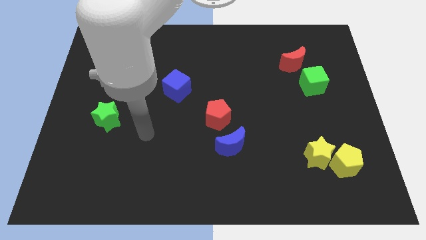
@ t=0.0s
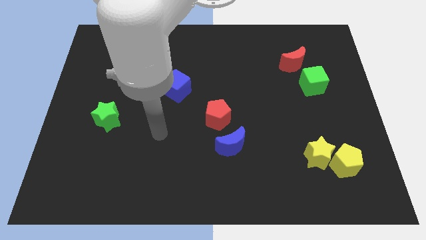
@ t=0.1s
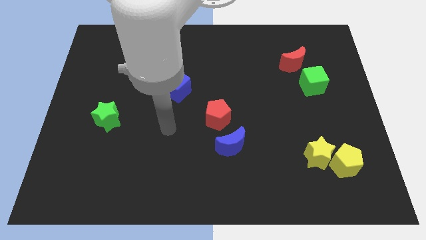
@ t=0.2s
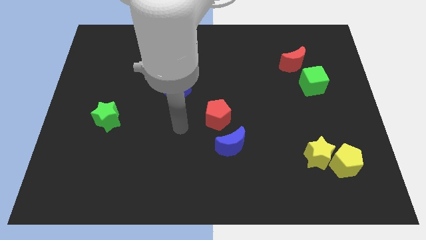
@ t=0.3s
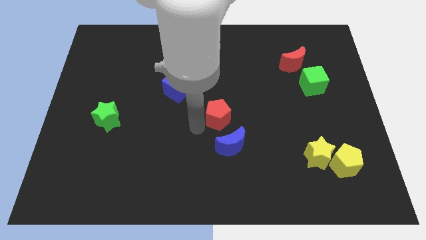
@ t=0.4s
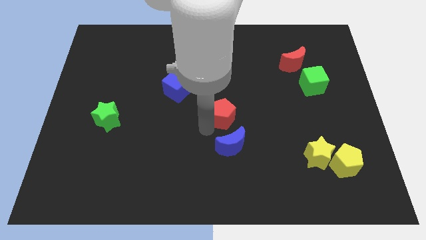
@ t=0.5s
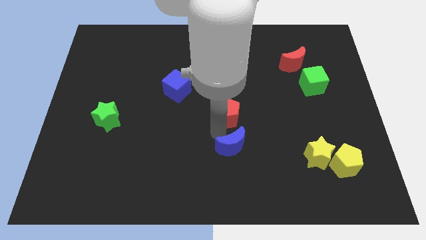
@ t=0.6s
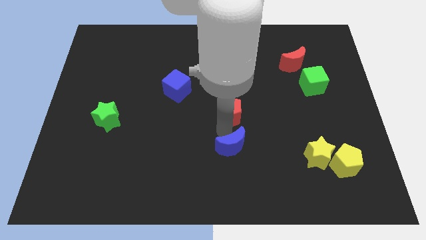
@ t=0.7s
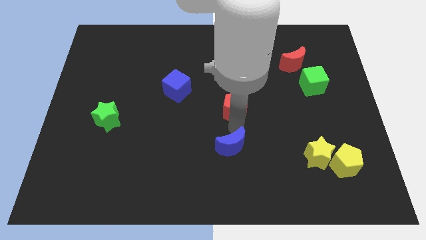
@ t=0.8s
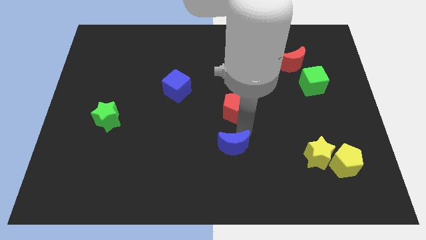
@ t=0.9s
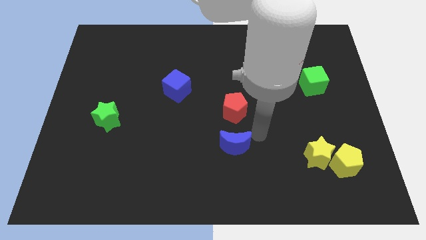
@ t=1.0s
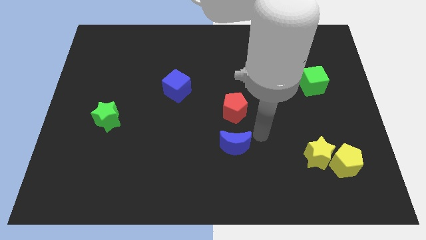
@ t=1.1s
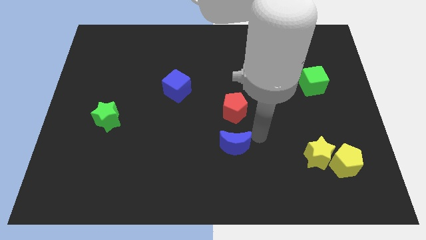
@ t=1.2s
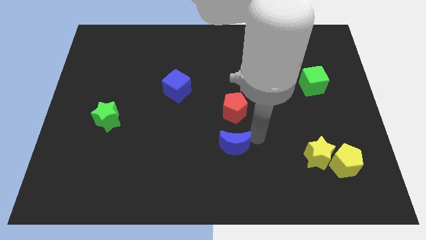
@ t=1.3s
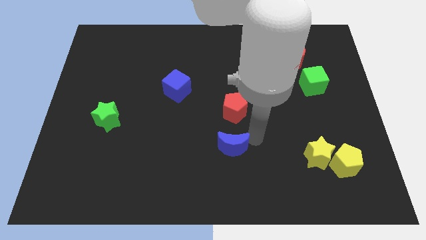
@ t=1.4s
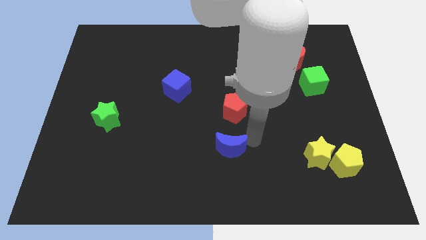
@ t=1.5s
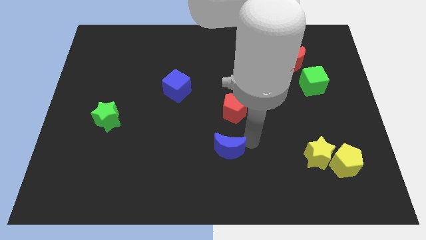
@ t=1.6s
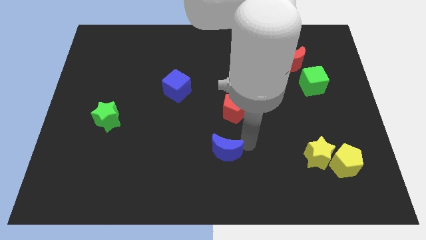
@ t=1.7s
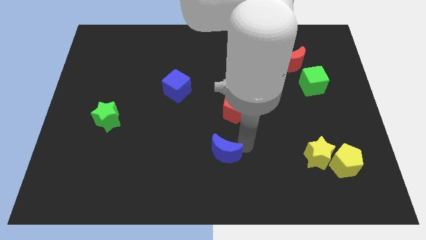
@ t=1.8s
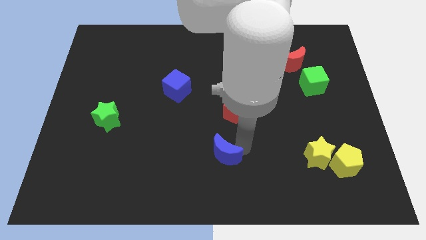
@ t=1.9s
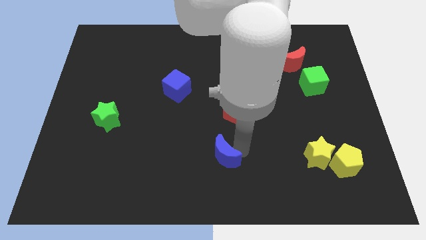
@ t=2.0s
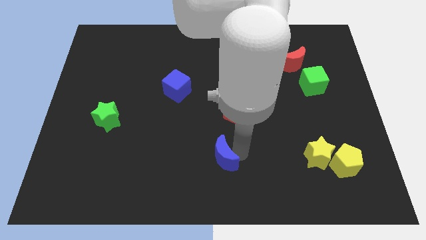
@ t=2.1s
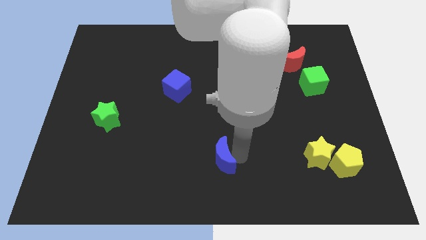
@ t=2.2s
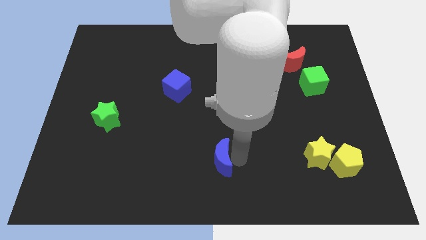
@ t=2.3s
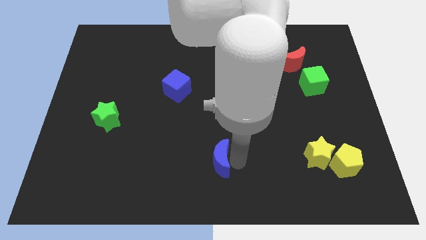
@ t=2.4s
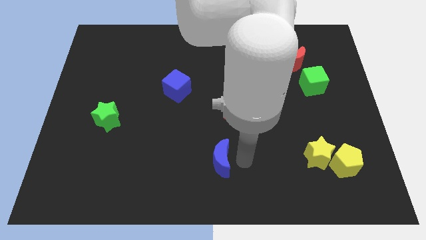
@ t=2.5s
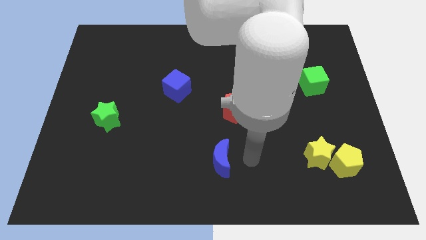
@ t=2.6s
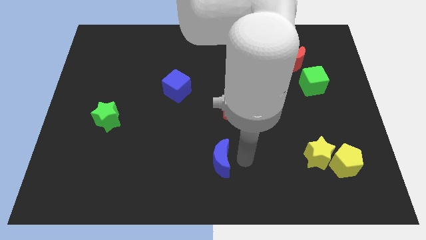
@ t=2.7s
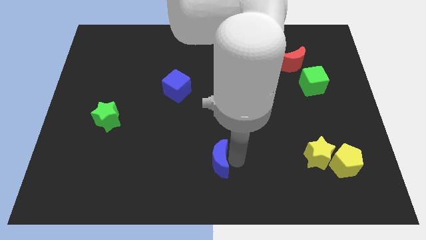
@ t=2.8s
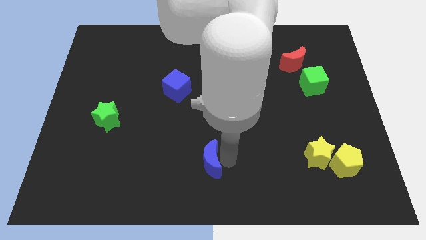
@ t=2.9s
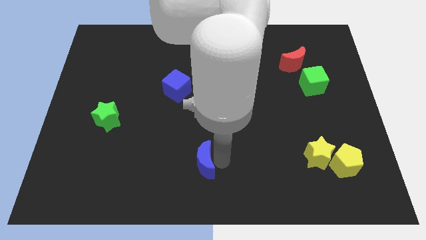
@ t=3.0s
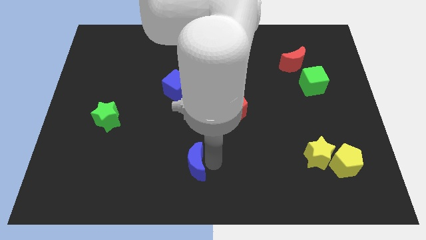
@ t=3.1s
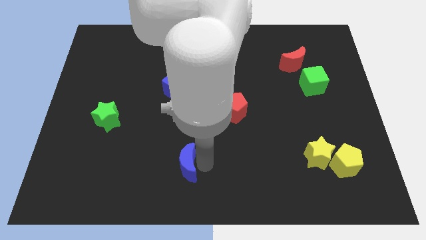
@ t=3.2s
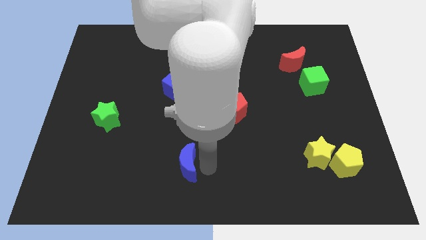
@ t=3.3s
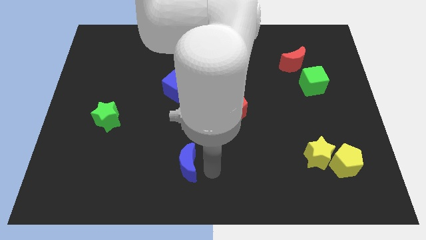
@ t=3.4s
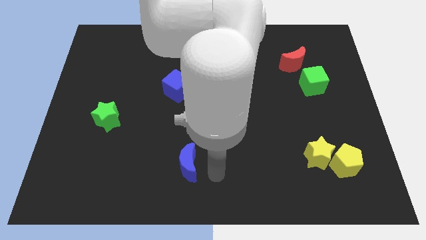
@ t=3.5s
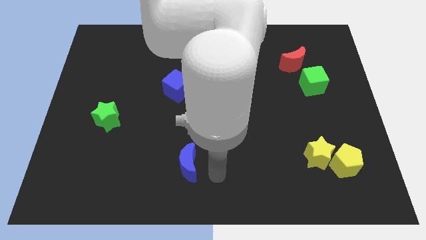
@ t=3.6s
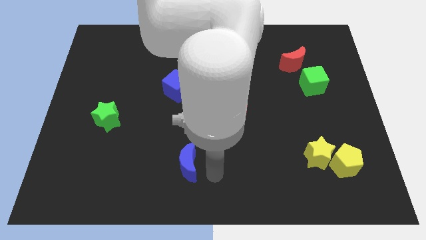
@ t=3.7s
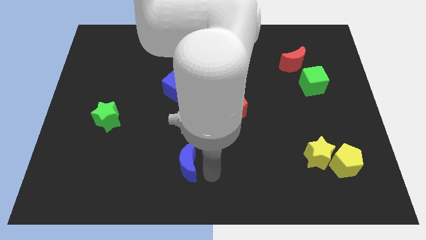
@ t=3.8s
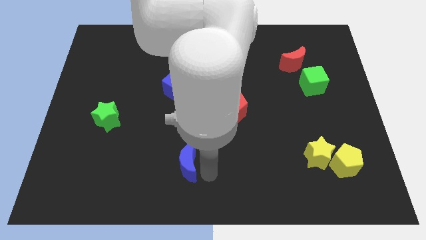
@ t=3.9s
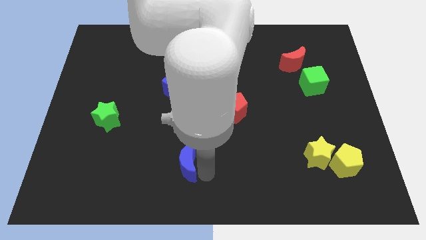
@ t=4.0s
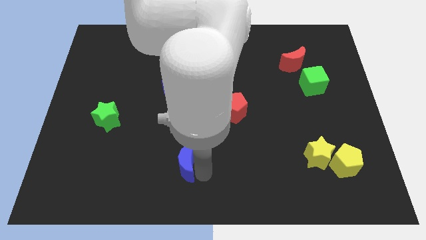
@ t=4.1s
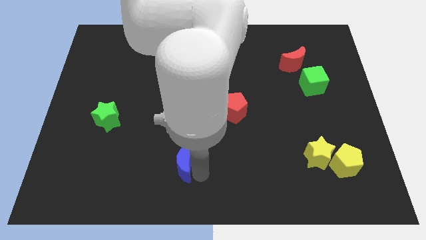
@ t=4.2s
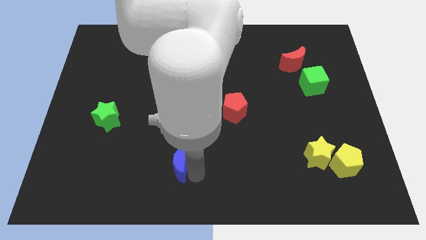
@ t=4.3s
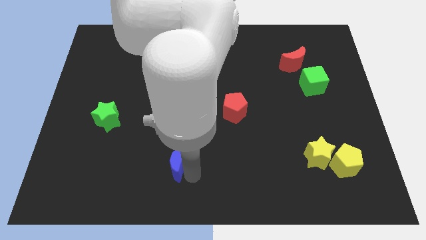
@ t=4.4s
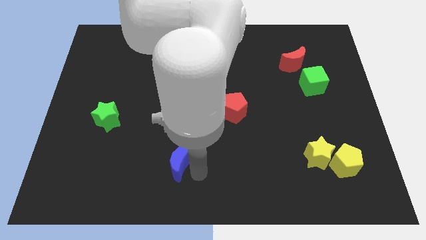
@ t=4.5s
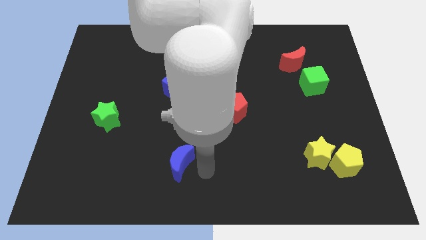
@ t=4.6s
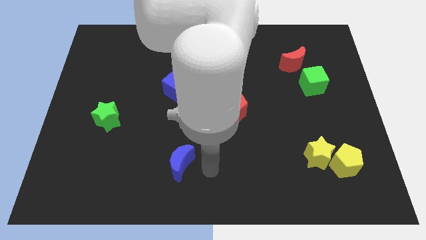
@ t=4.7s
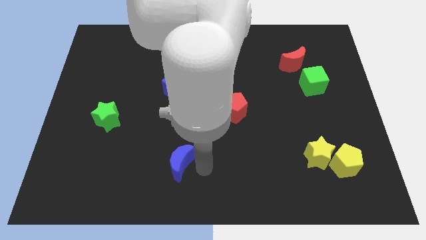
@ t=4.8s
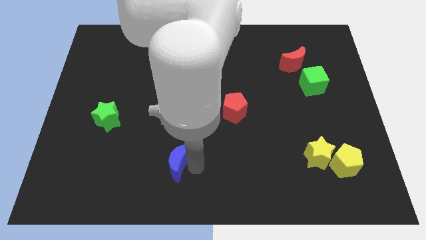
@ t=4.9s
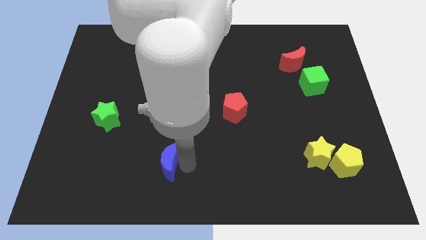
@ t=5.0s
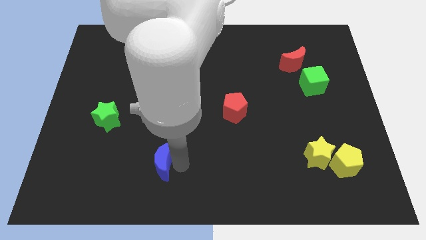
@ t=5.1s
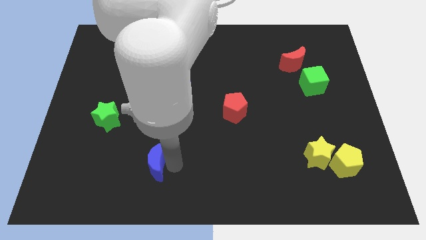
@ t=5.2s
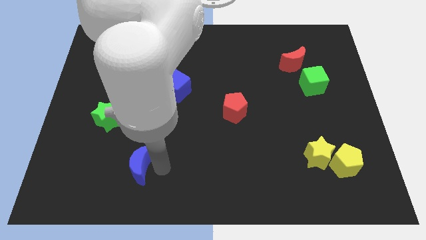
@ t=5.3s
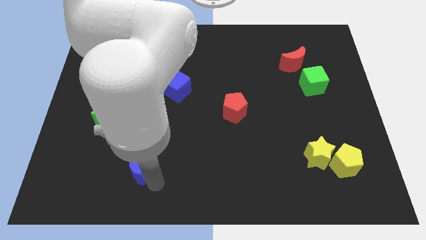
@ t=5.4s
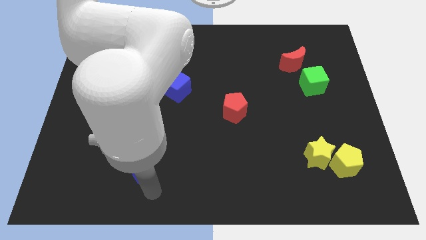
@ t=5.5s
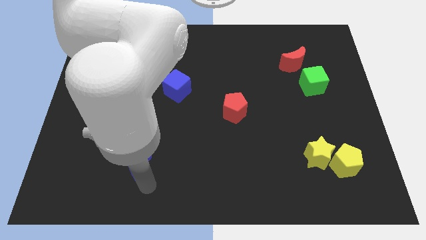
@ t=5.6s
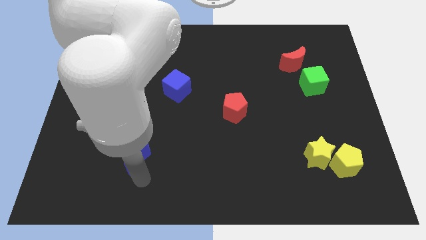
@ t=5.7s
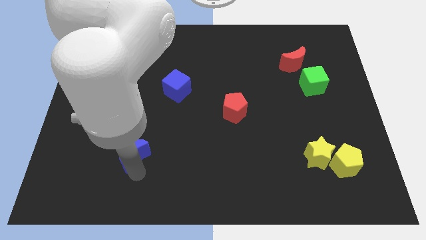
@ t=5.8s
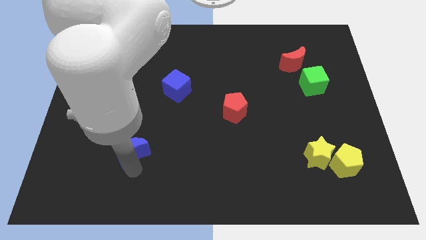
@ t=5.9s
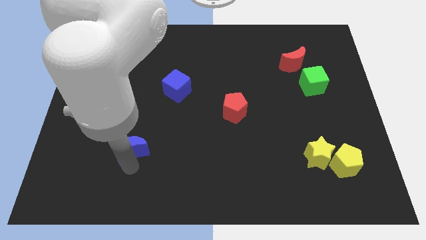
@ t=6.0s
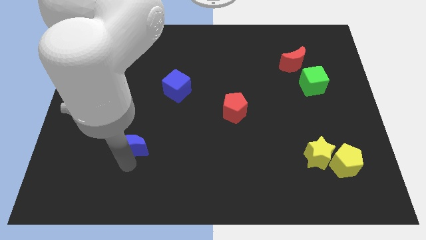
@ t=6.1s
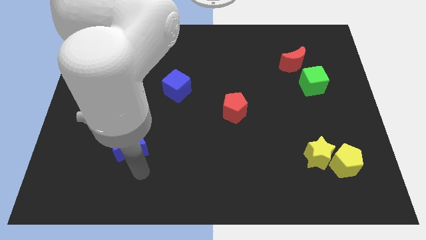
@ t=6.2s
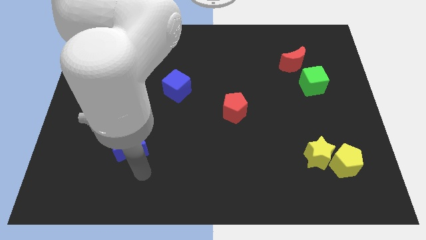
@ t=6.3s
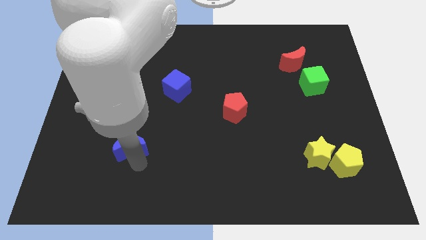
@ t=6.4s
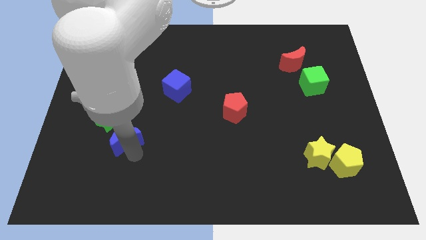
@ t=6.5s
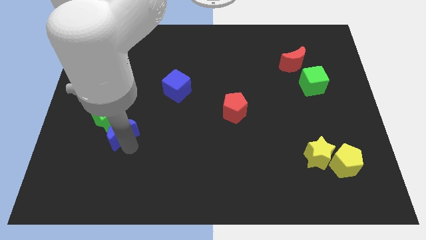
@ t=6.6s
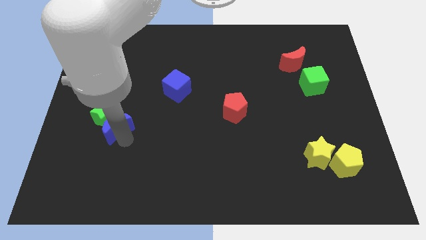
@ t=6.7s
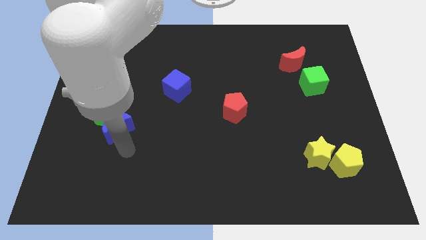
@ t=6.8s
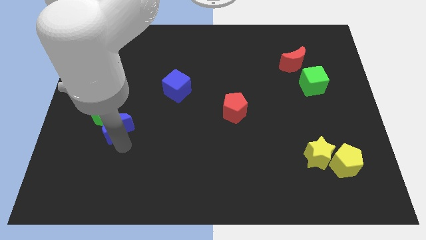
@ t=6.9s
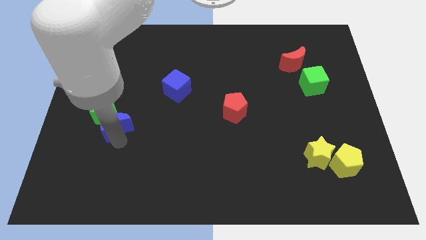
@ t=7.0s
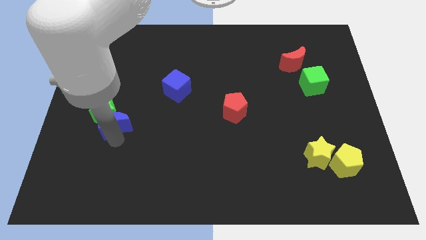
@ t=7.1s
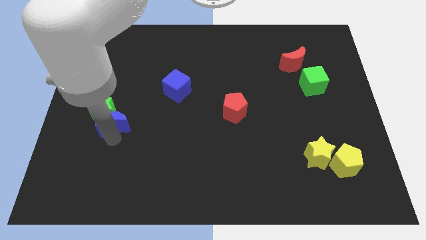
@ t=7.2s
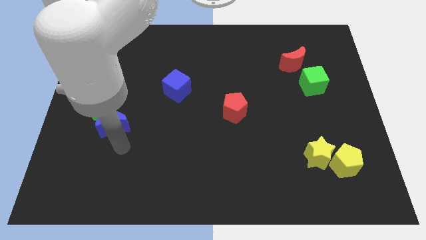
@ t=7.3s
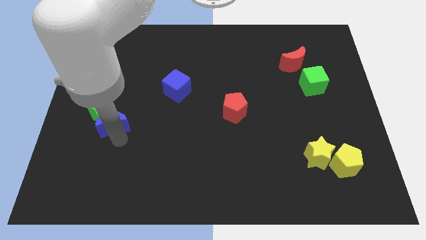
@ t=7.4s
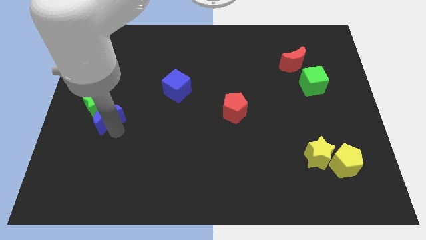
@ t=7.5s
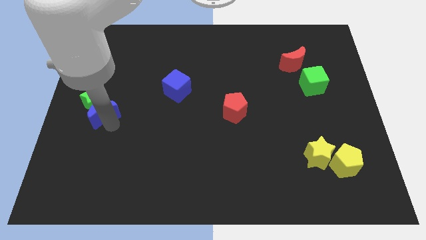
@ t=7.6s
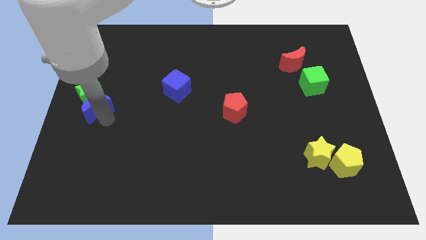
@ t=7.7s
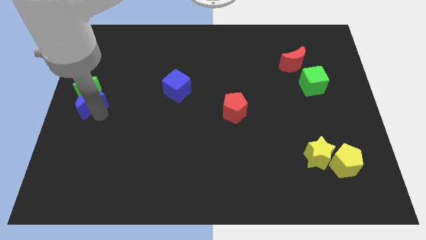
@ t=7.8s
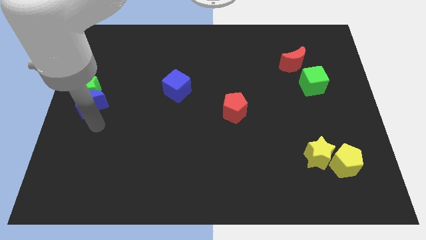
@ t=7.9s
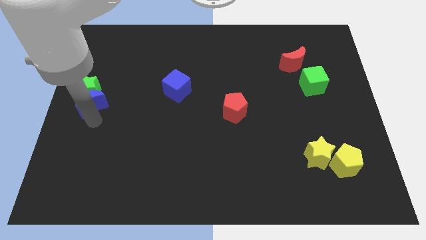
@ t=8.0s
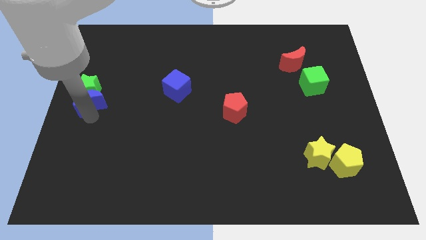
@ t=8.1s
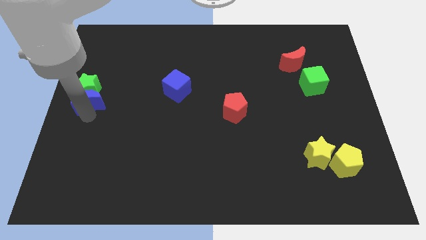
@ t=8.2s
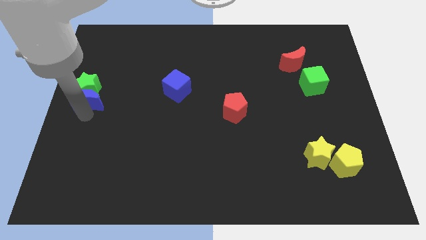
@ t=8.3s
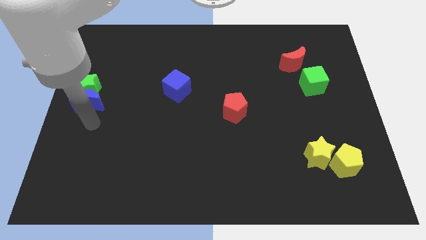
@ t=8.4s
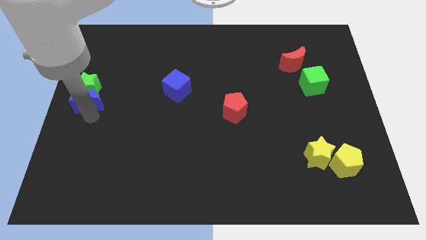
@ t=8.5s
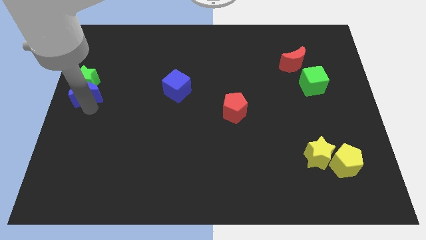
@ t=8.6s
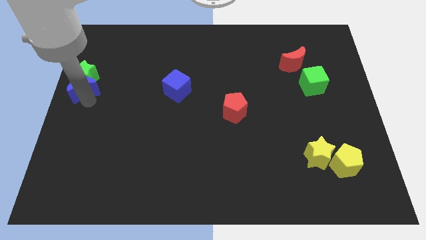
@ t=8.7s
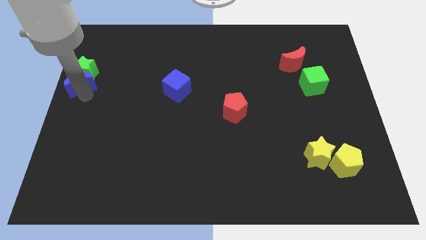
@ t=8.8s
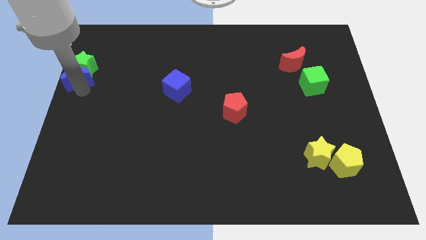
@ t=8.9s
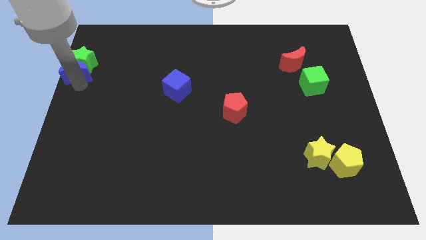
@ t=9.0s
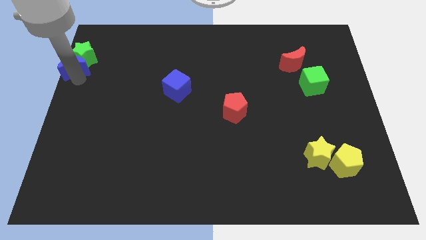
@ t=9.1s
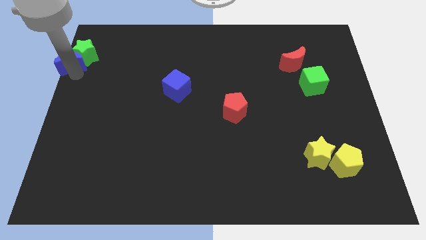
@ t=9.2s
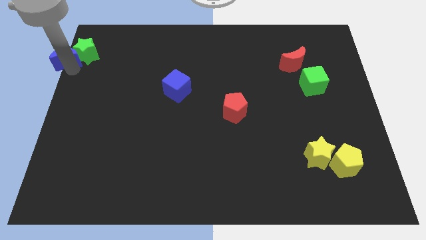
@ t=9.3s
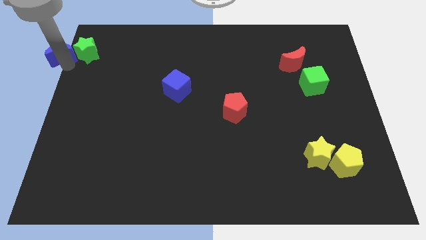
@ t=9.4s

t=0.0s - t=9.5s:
slide the blue moon to the upper left corner
